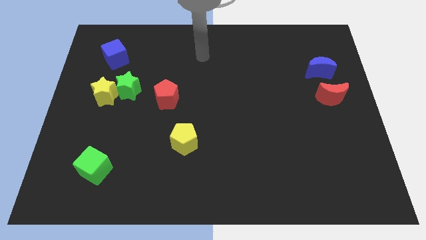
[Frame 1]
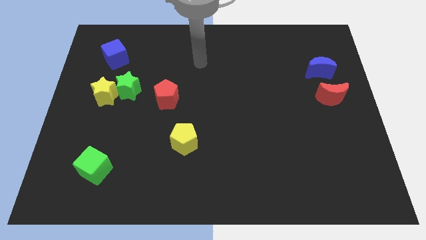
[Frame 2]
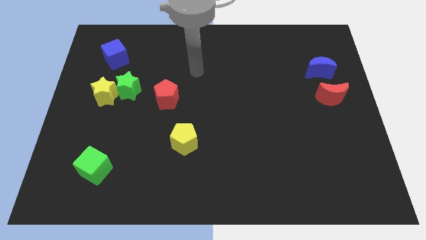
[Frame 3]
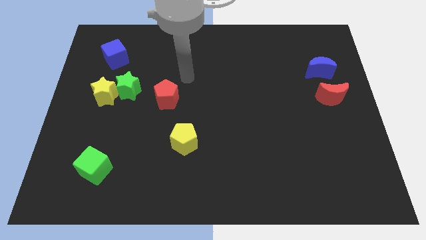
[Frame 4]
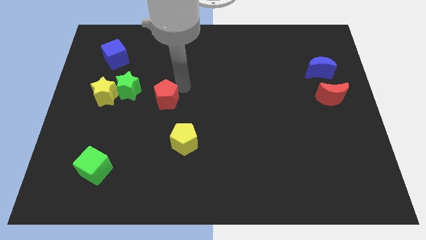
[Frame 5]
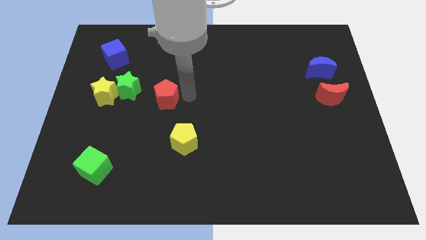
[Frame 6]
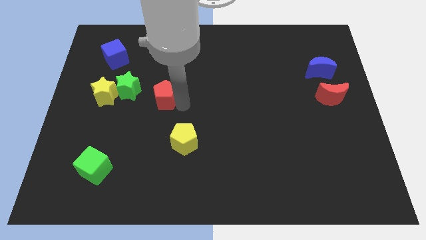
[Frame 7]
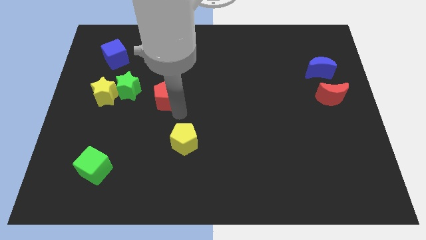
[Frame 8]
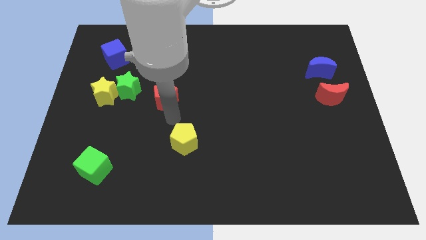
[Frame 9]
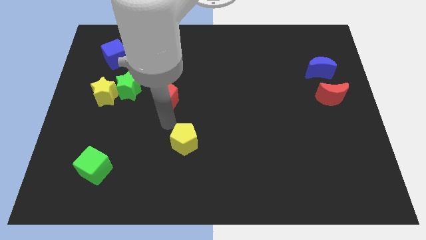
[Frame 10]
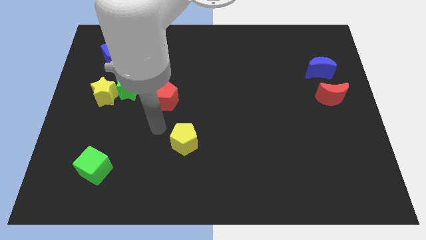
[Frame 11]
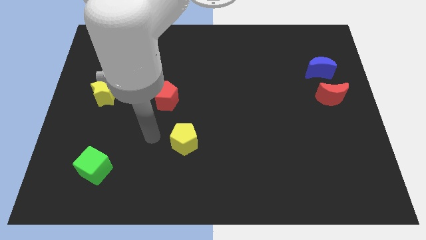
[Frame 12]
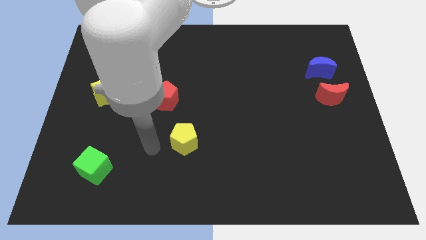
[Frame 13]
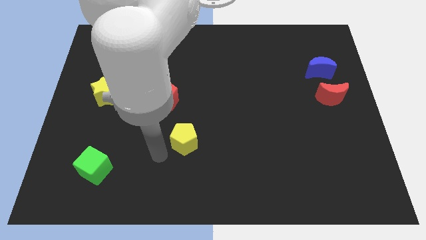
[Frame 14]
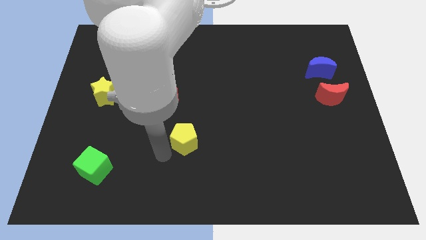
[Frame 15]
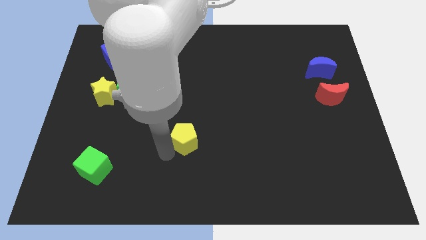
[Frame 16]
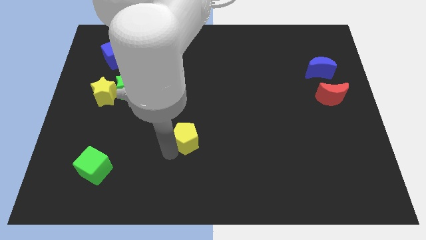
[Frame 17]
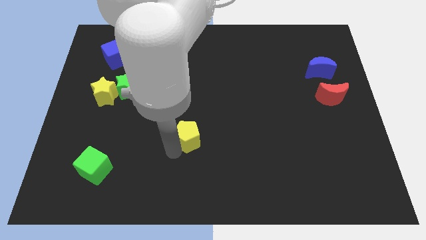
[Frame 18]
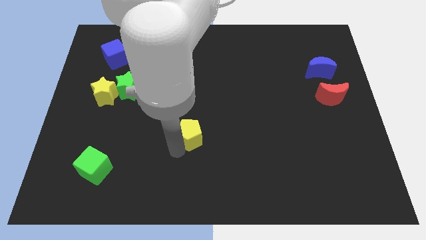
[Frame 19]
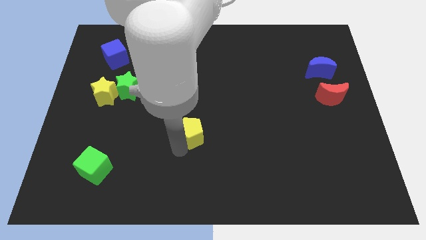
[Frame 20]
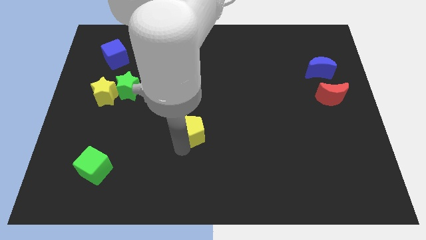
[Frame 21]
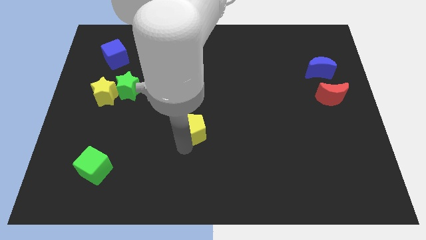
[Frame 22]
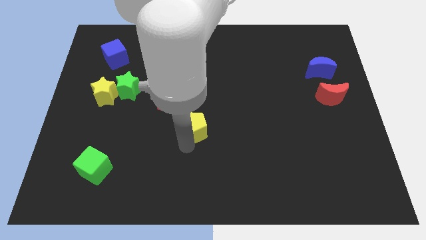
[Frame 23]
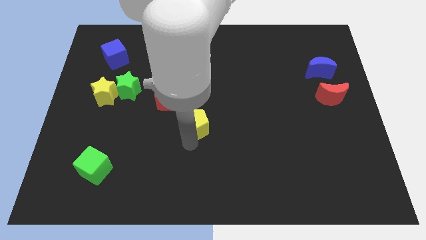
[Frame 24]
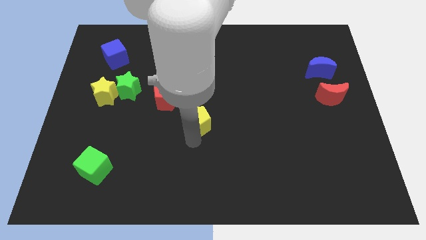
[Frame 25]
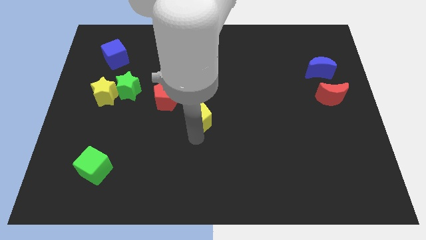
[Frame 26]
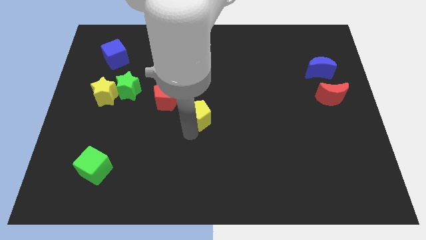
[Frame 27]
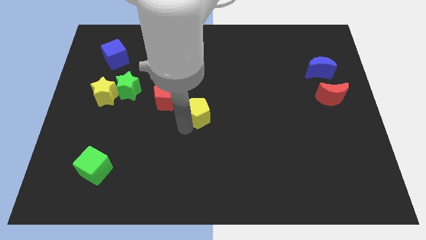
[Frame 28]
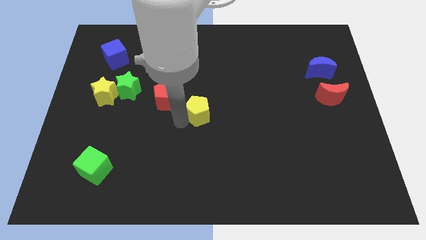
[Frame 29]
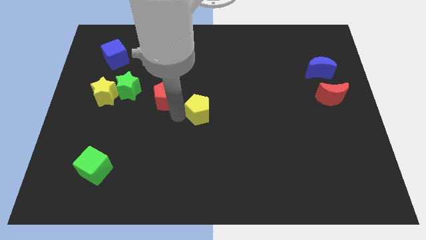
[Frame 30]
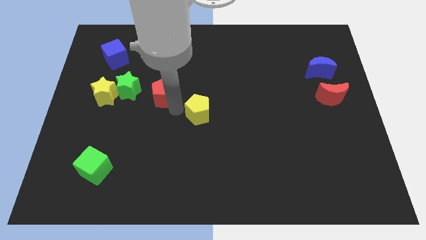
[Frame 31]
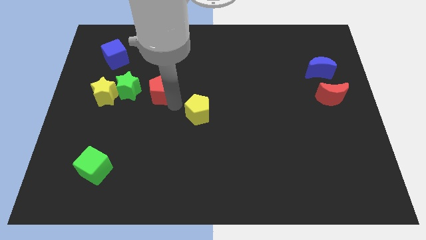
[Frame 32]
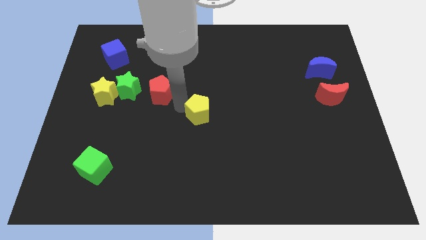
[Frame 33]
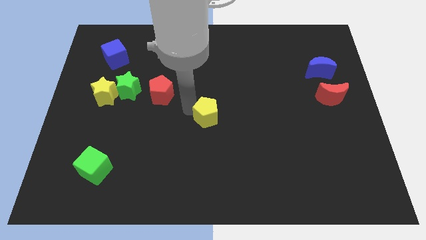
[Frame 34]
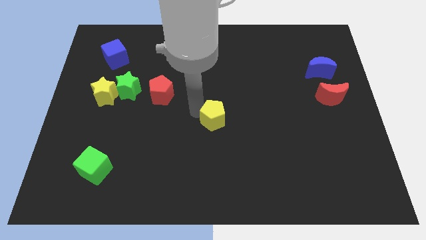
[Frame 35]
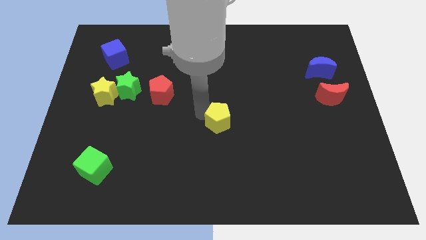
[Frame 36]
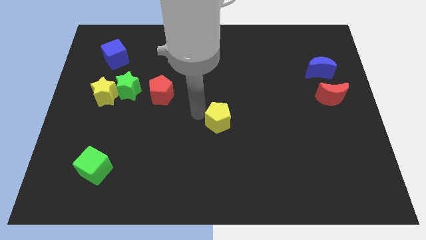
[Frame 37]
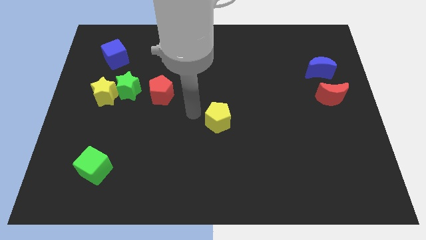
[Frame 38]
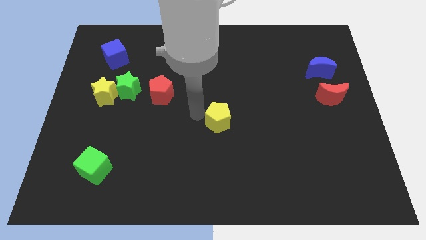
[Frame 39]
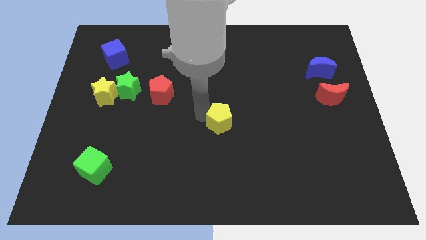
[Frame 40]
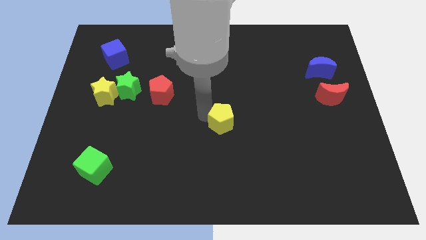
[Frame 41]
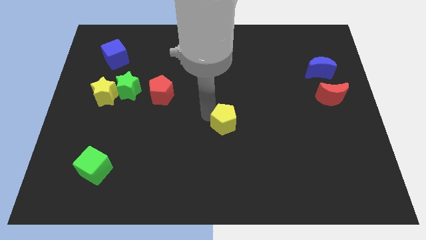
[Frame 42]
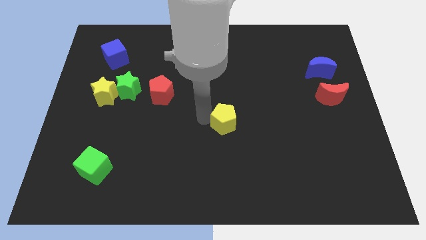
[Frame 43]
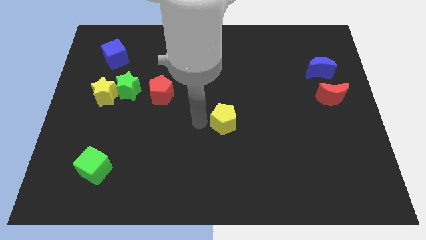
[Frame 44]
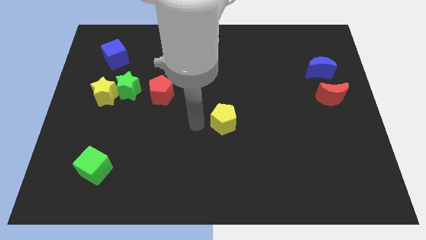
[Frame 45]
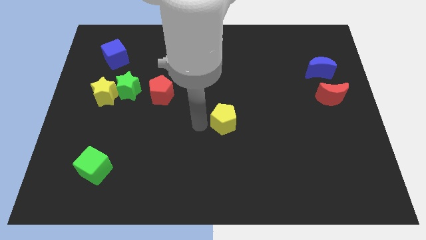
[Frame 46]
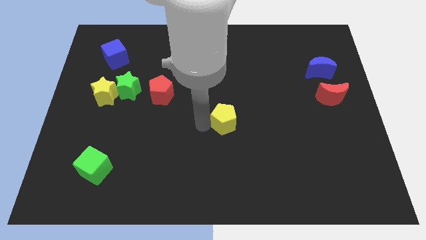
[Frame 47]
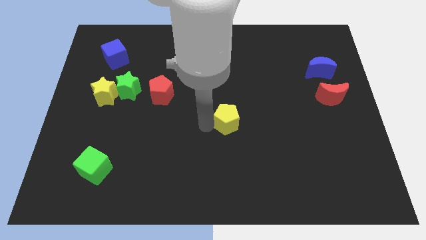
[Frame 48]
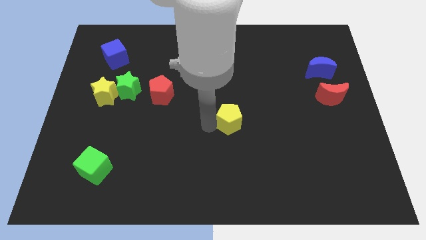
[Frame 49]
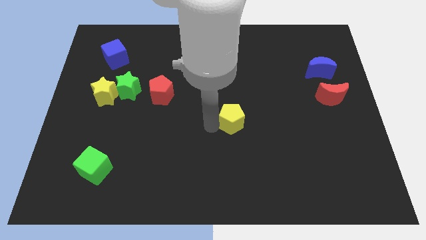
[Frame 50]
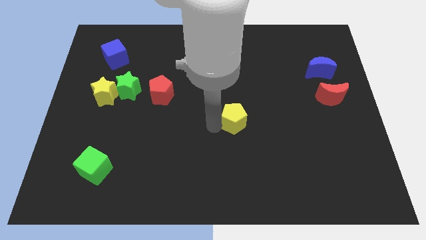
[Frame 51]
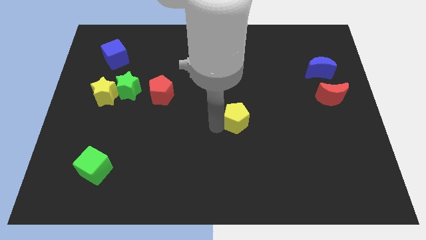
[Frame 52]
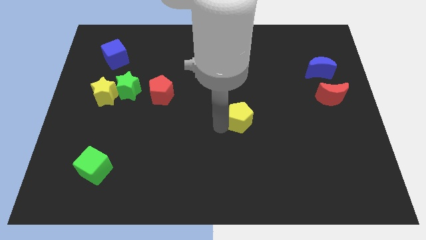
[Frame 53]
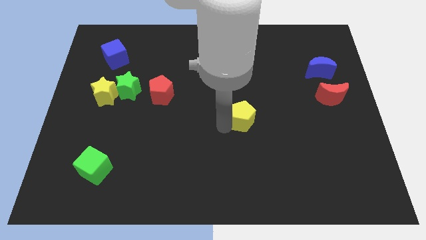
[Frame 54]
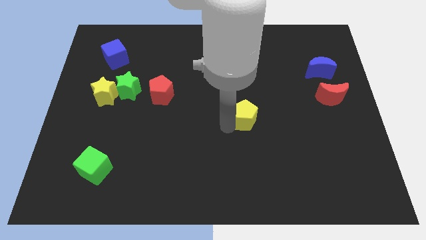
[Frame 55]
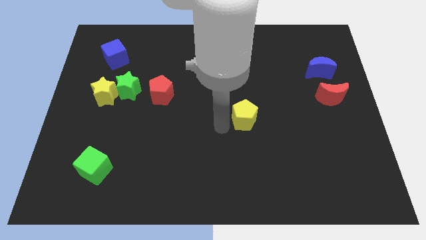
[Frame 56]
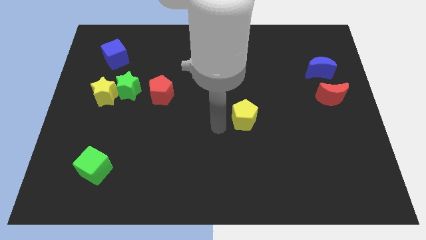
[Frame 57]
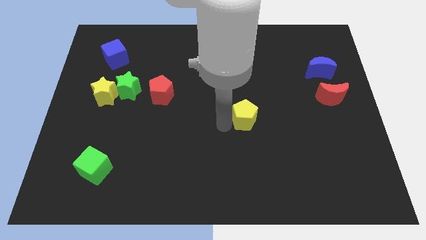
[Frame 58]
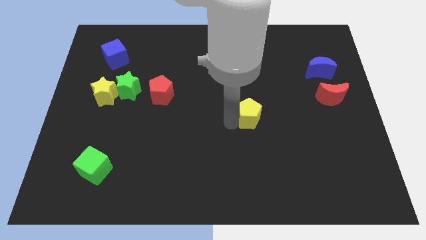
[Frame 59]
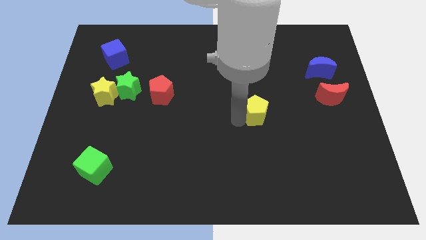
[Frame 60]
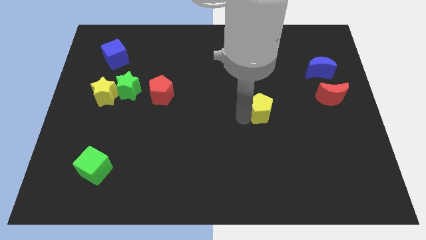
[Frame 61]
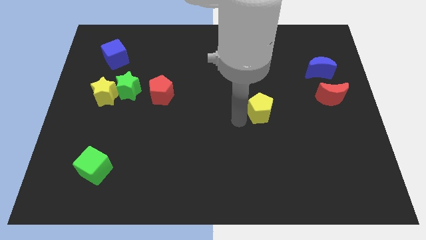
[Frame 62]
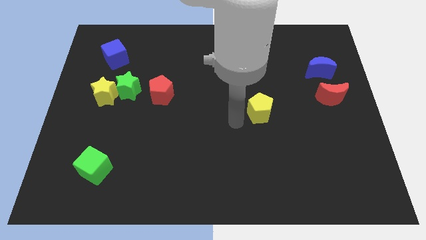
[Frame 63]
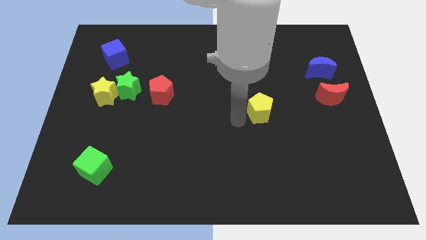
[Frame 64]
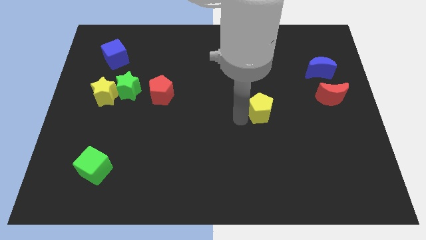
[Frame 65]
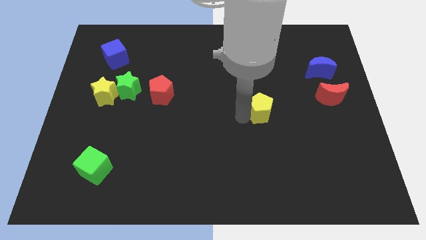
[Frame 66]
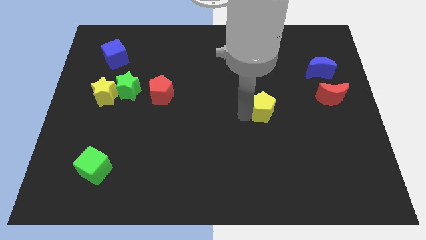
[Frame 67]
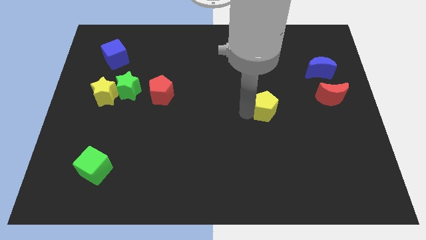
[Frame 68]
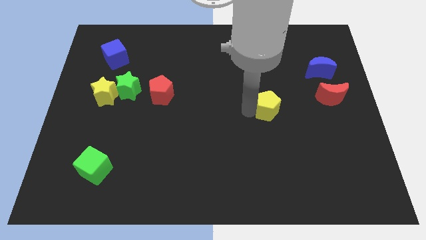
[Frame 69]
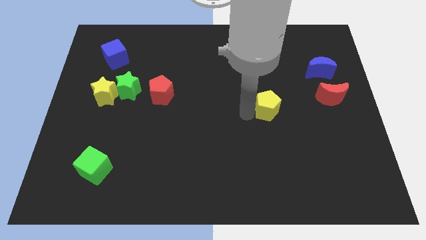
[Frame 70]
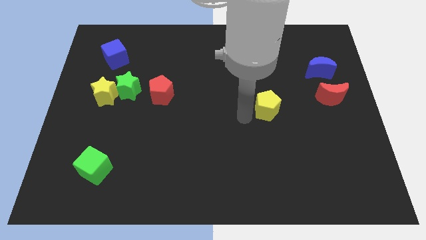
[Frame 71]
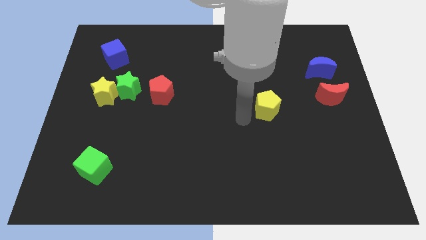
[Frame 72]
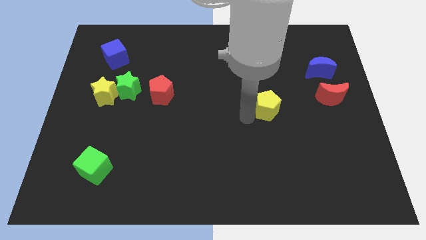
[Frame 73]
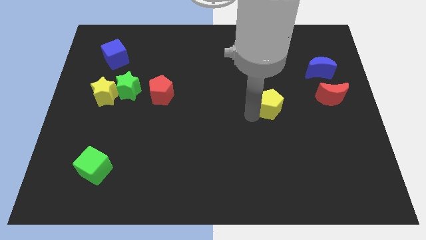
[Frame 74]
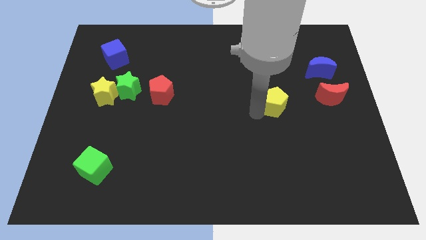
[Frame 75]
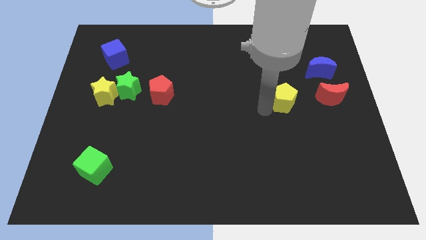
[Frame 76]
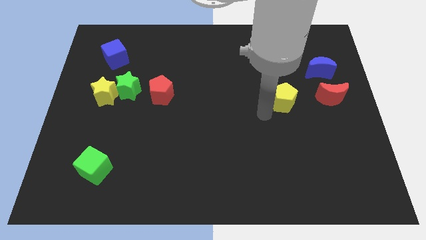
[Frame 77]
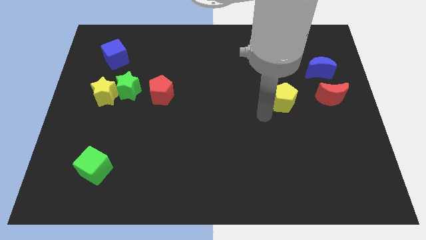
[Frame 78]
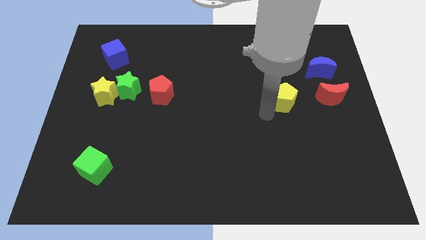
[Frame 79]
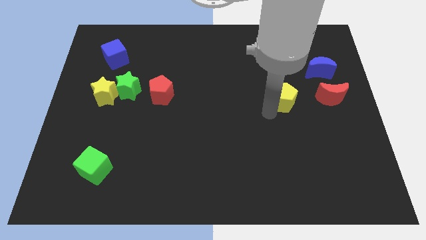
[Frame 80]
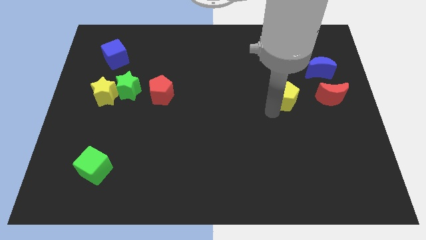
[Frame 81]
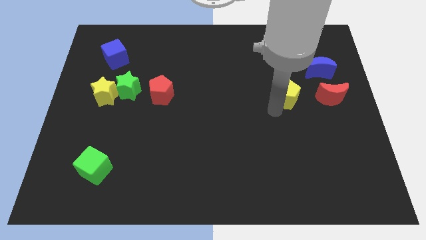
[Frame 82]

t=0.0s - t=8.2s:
put the yellow pentagon diagonally down and to the left of the blue moon
